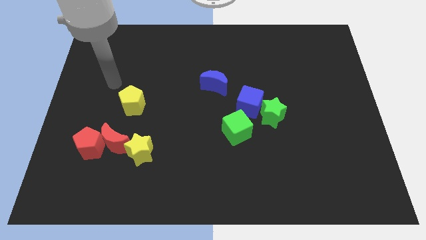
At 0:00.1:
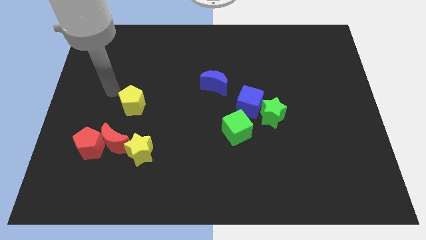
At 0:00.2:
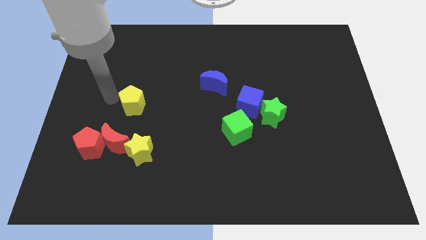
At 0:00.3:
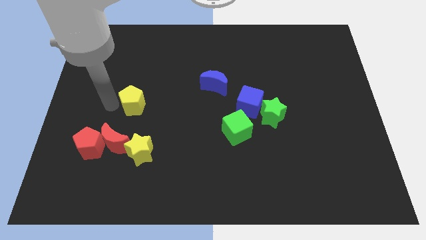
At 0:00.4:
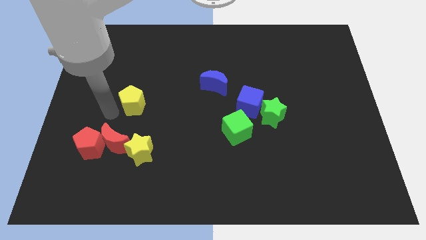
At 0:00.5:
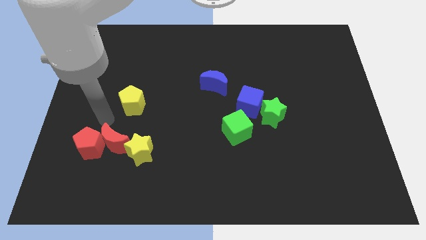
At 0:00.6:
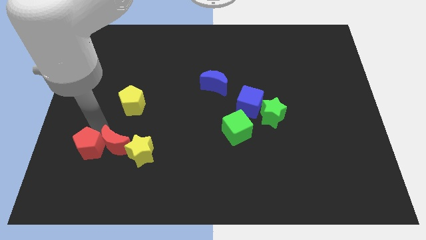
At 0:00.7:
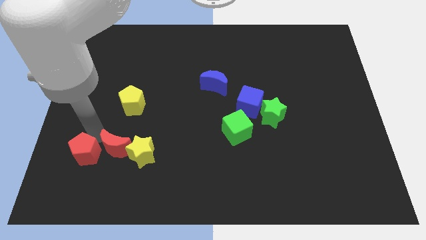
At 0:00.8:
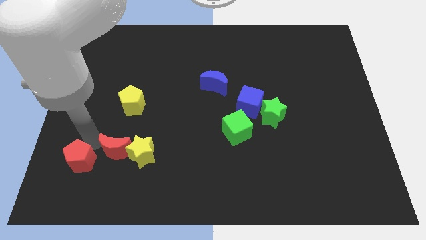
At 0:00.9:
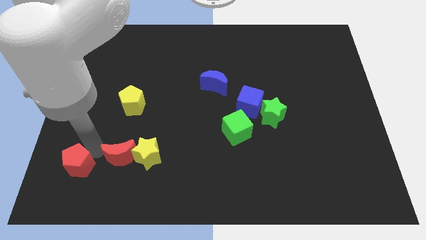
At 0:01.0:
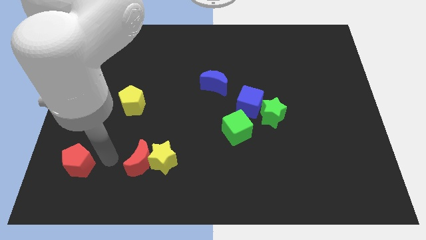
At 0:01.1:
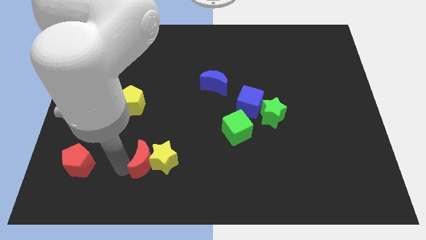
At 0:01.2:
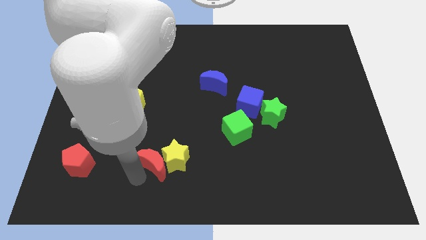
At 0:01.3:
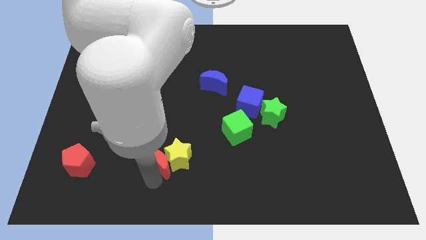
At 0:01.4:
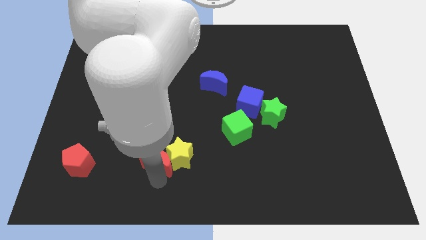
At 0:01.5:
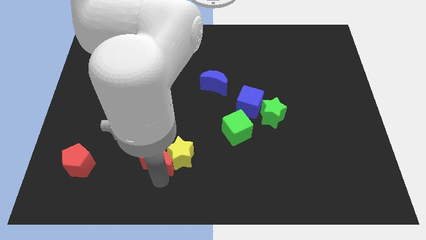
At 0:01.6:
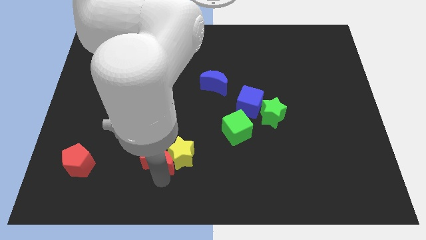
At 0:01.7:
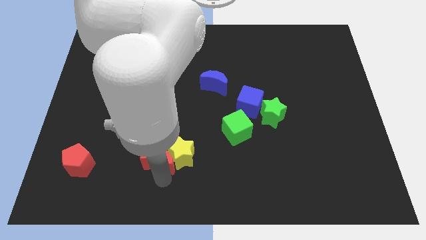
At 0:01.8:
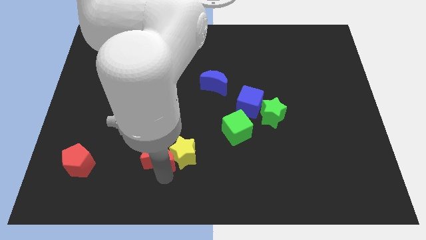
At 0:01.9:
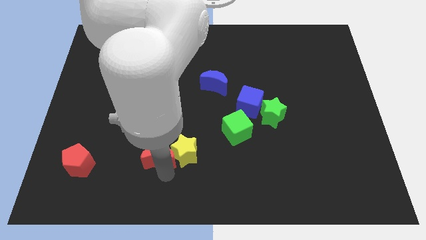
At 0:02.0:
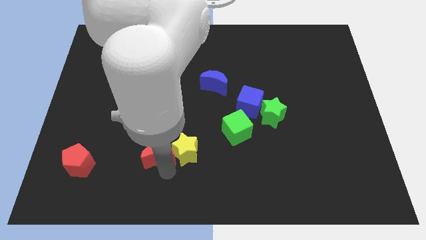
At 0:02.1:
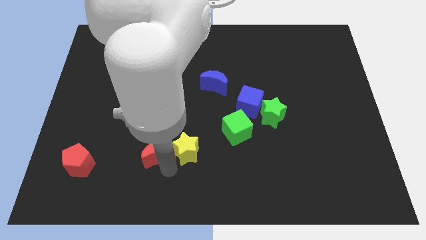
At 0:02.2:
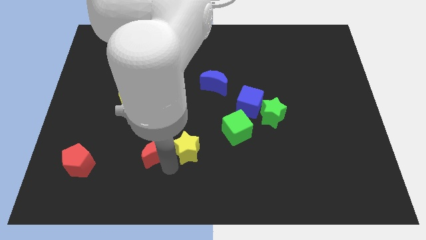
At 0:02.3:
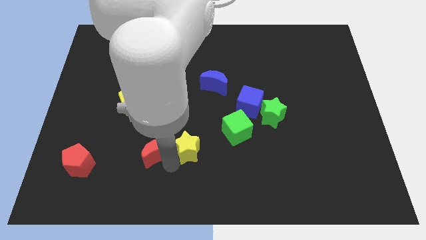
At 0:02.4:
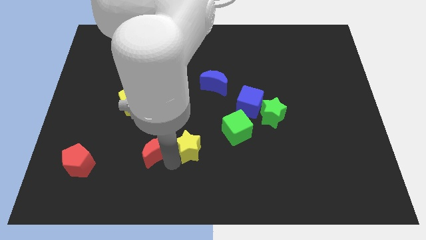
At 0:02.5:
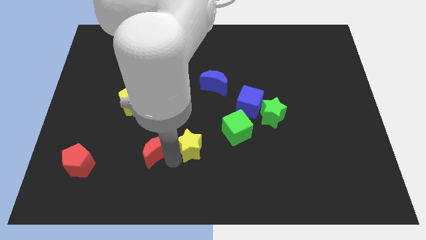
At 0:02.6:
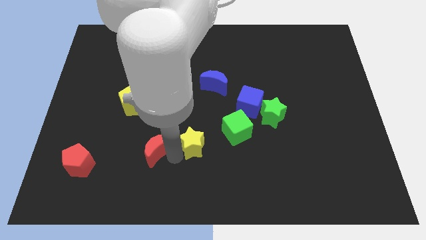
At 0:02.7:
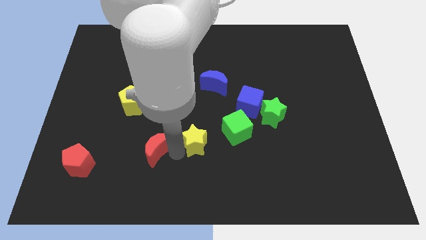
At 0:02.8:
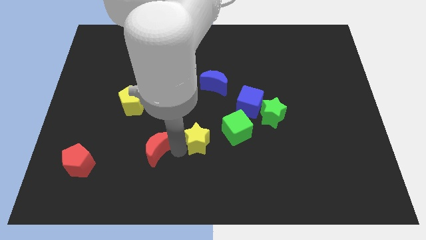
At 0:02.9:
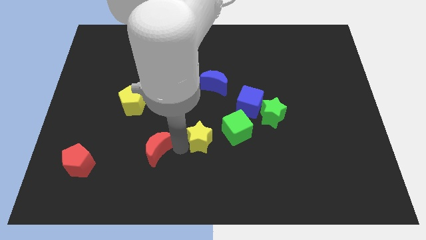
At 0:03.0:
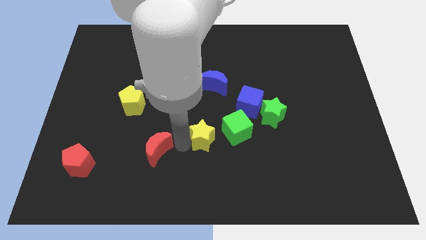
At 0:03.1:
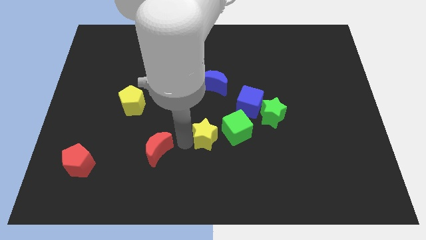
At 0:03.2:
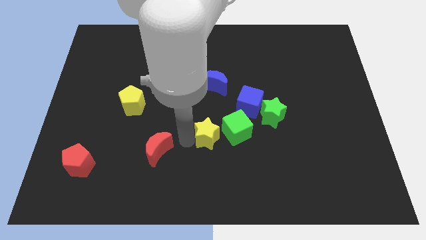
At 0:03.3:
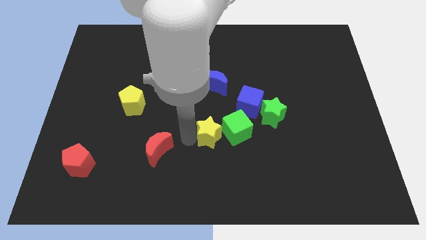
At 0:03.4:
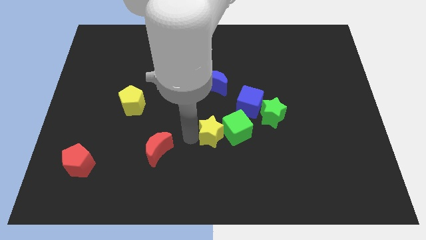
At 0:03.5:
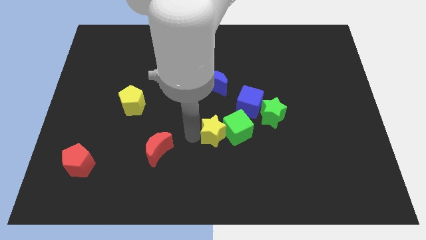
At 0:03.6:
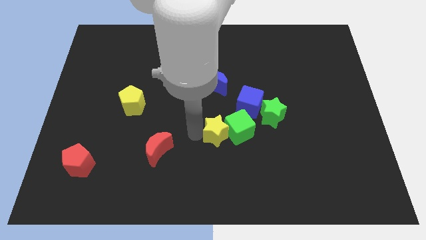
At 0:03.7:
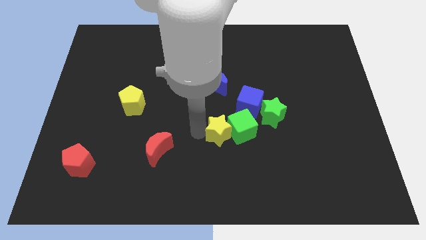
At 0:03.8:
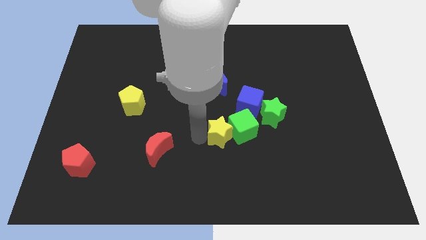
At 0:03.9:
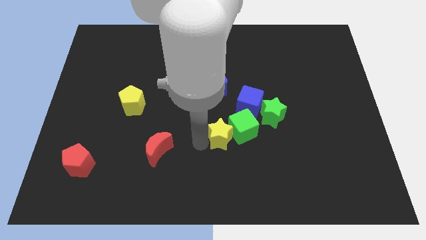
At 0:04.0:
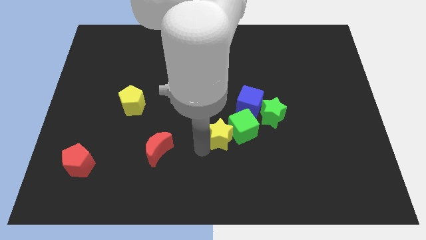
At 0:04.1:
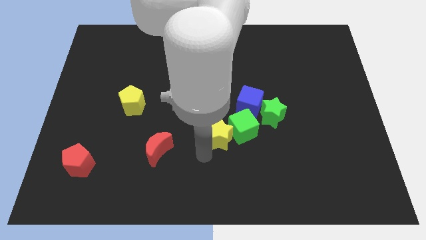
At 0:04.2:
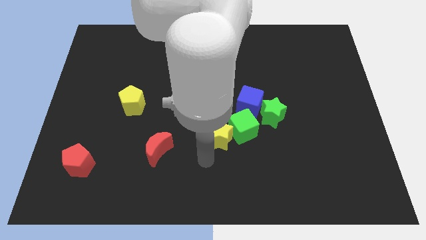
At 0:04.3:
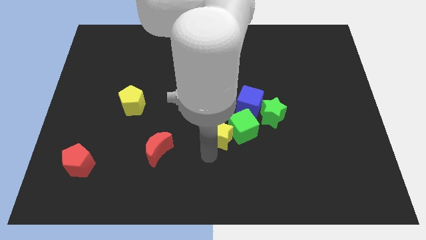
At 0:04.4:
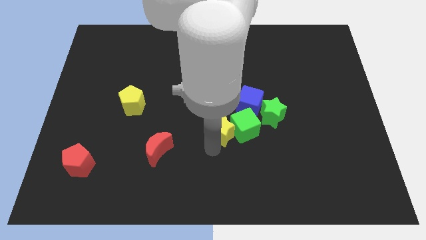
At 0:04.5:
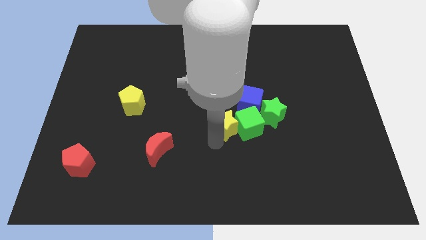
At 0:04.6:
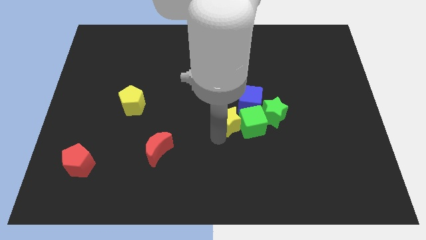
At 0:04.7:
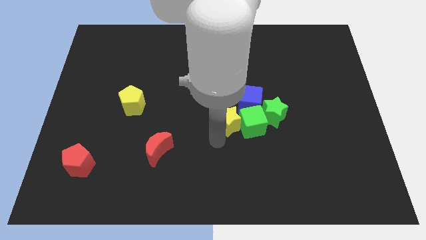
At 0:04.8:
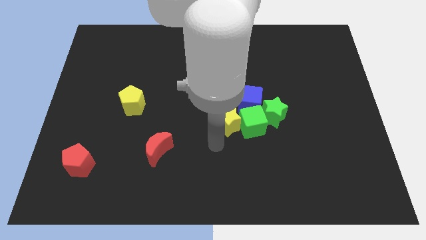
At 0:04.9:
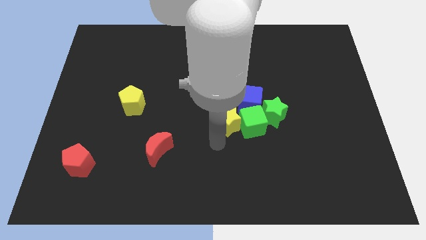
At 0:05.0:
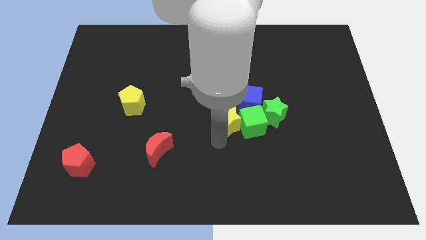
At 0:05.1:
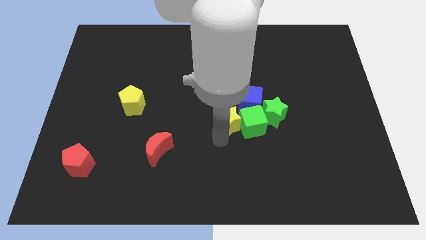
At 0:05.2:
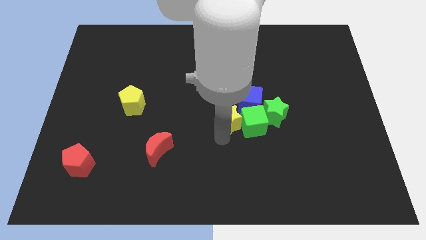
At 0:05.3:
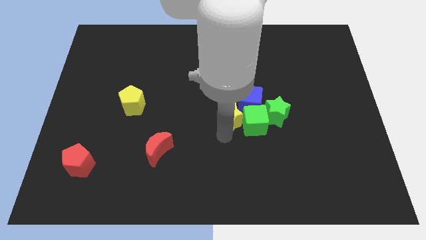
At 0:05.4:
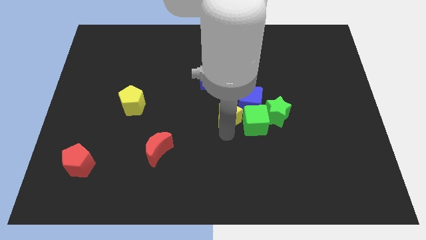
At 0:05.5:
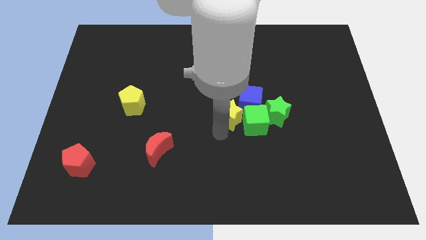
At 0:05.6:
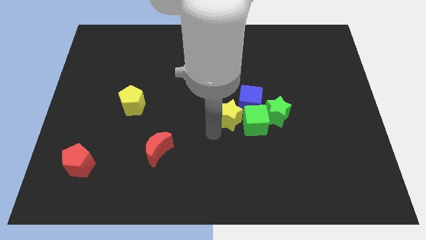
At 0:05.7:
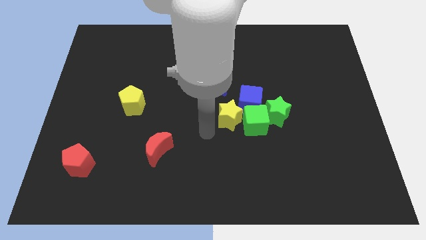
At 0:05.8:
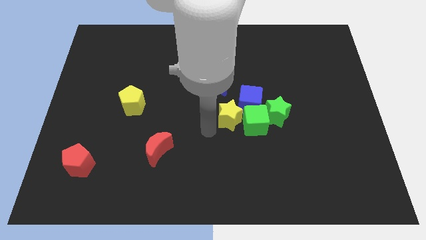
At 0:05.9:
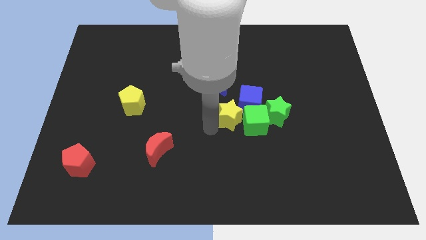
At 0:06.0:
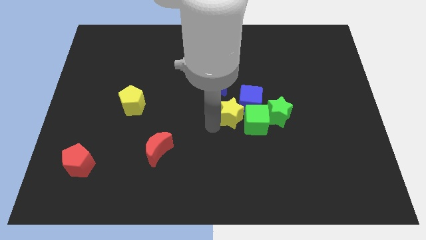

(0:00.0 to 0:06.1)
push the yellow star towards the blue cube

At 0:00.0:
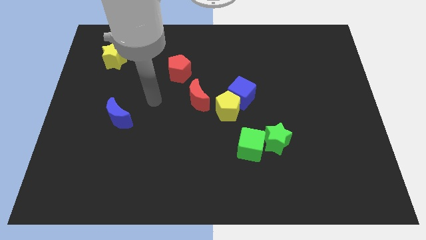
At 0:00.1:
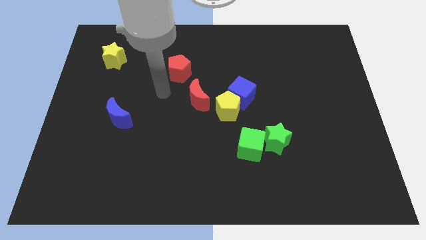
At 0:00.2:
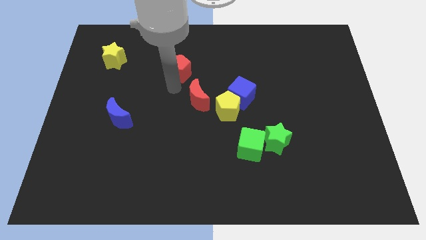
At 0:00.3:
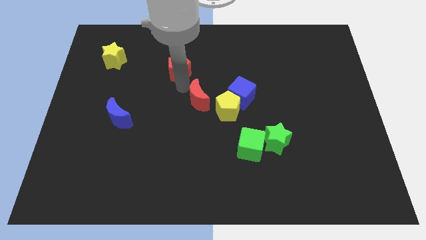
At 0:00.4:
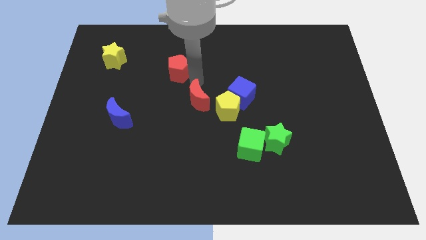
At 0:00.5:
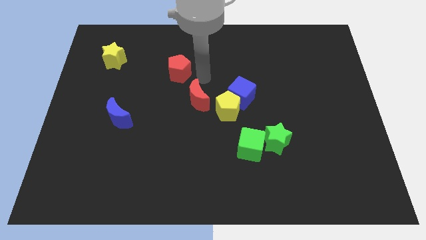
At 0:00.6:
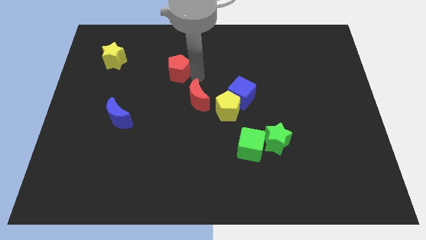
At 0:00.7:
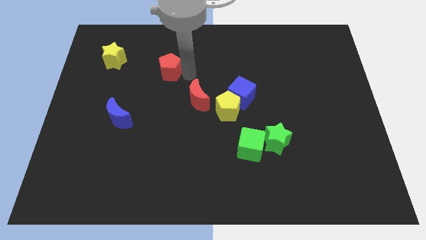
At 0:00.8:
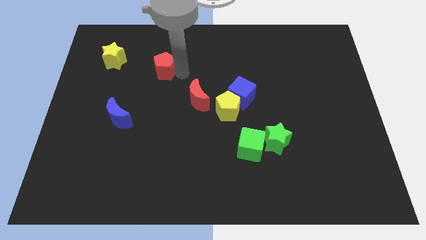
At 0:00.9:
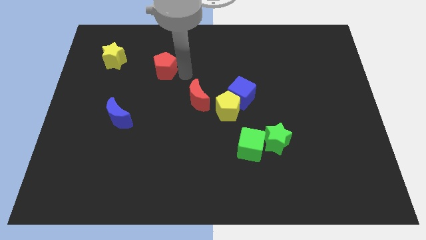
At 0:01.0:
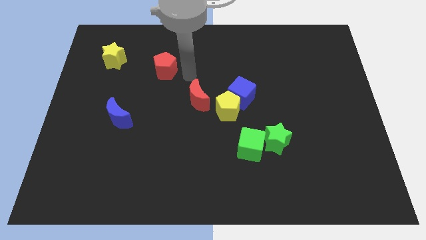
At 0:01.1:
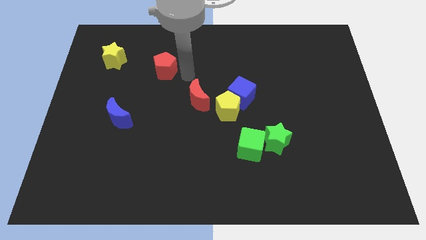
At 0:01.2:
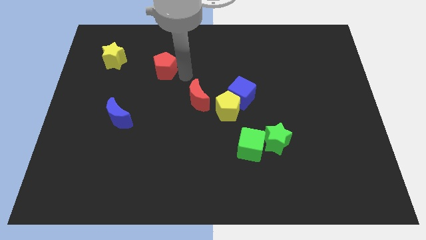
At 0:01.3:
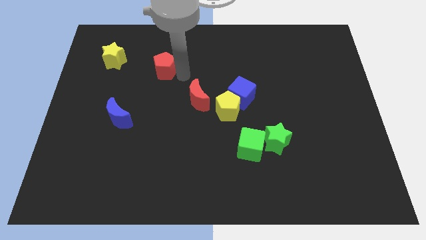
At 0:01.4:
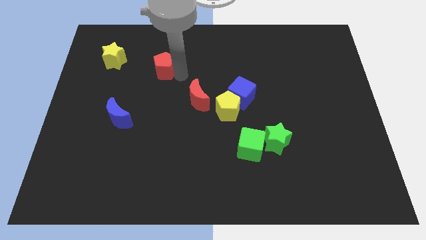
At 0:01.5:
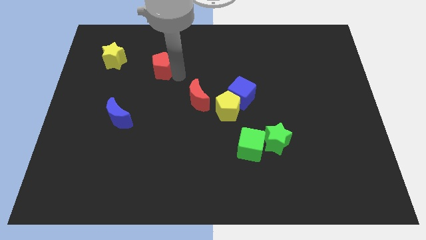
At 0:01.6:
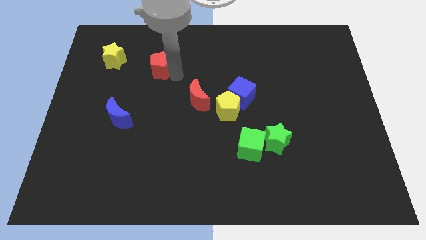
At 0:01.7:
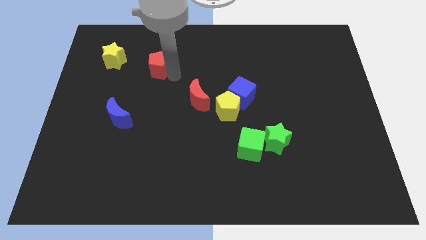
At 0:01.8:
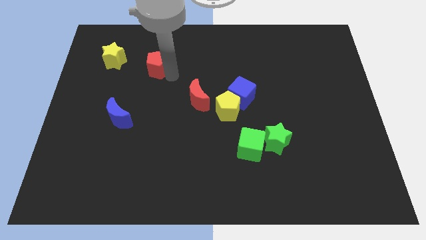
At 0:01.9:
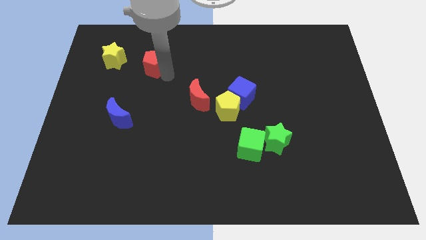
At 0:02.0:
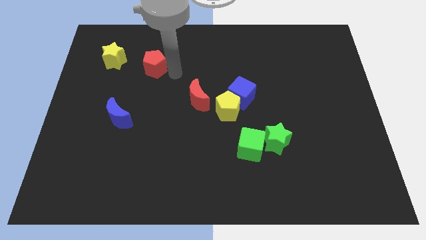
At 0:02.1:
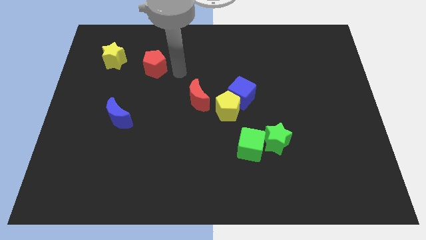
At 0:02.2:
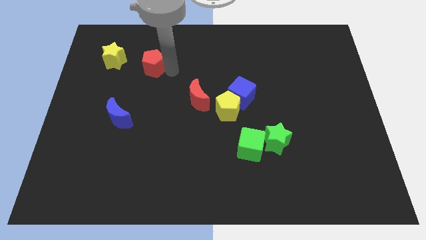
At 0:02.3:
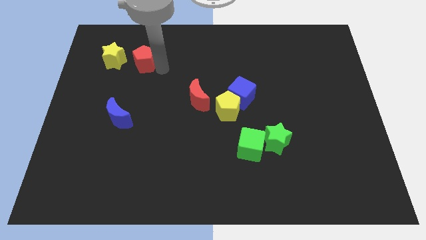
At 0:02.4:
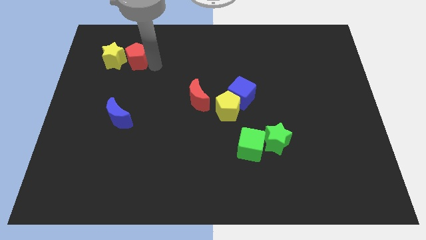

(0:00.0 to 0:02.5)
move the red pentagon towards the yellow star
